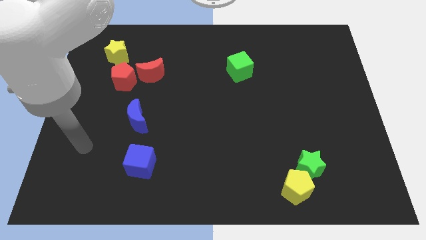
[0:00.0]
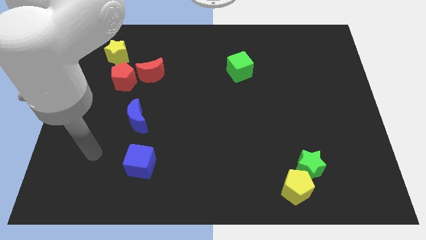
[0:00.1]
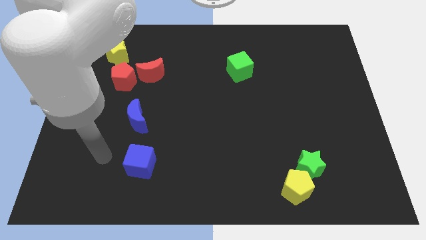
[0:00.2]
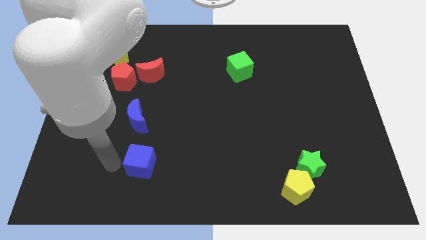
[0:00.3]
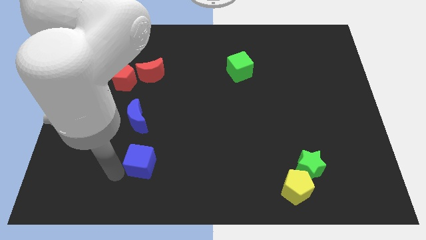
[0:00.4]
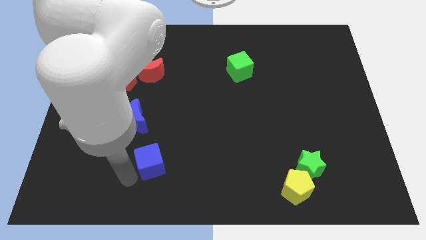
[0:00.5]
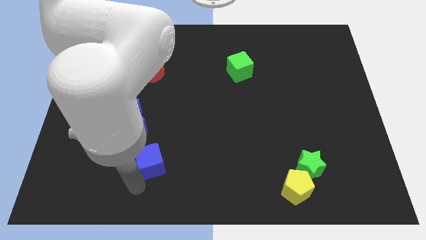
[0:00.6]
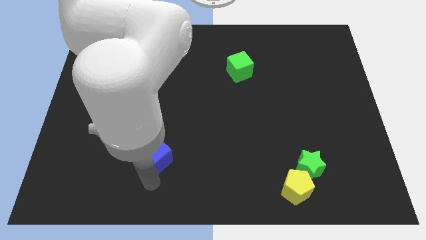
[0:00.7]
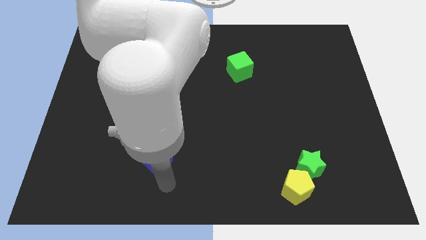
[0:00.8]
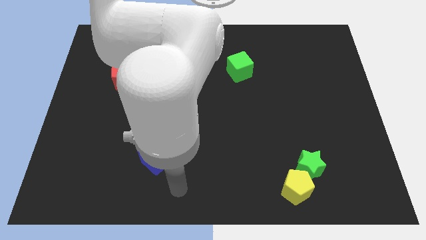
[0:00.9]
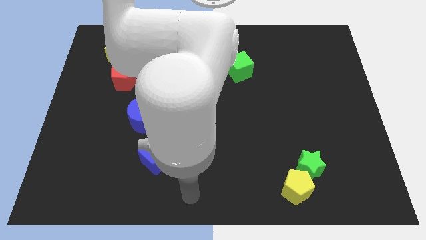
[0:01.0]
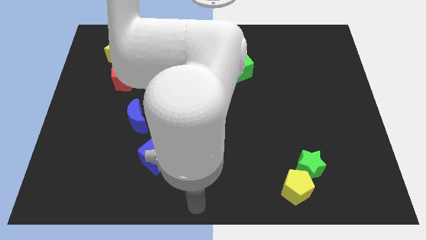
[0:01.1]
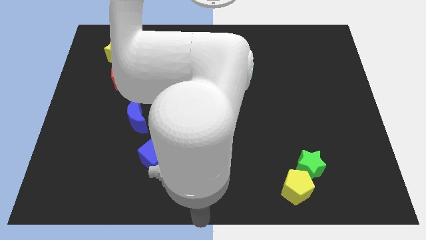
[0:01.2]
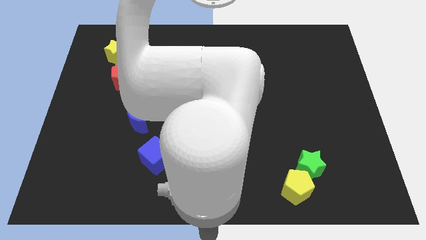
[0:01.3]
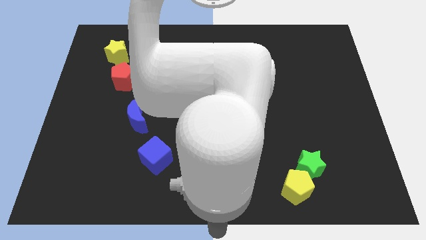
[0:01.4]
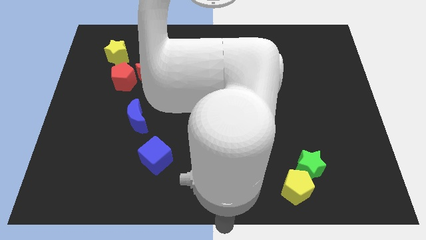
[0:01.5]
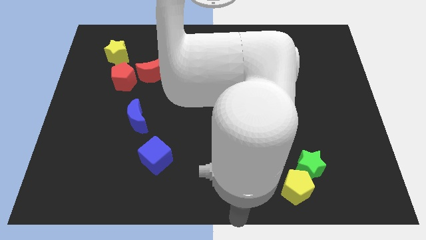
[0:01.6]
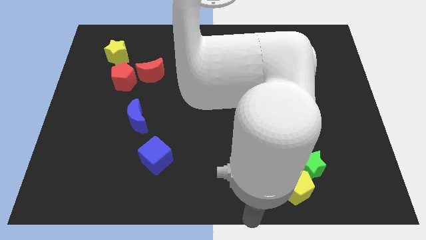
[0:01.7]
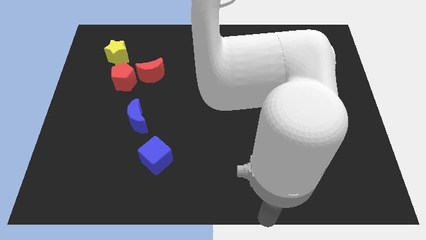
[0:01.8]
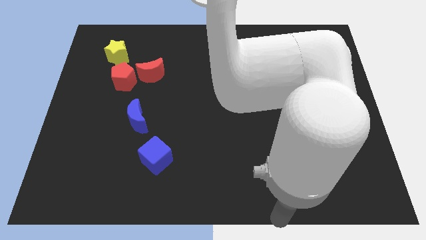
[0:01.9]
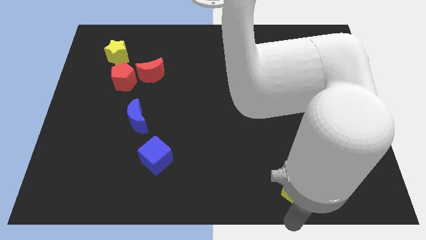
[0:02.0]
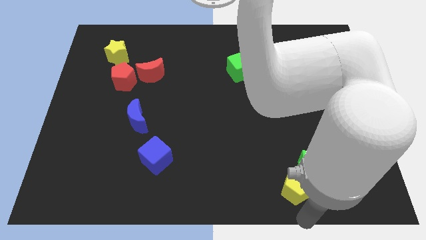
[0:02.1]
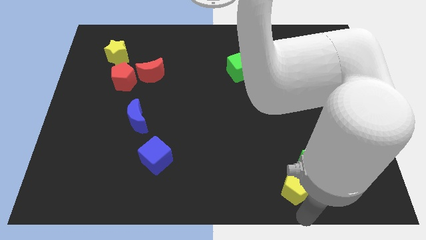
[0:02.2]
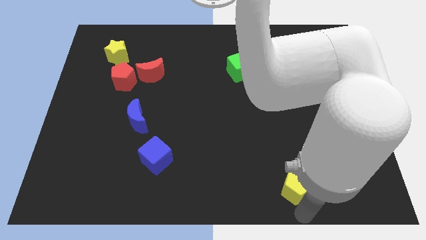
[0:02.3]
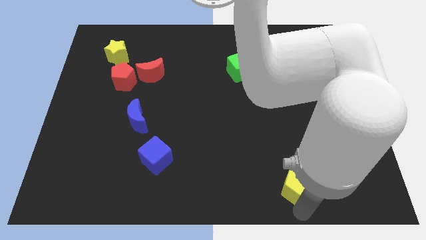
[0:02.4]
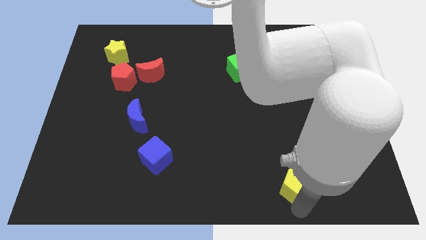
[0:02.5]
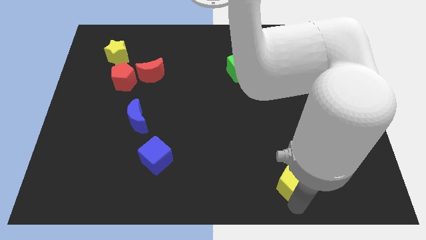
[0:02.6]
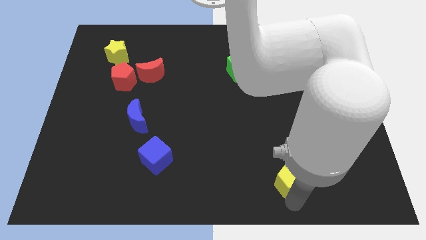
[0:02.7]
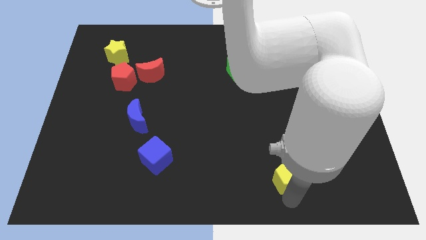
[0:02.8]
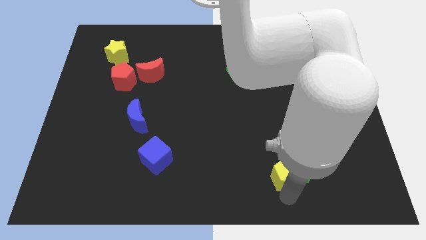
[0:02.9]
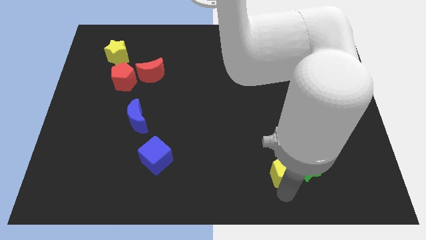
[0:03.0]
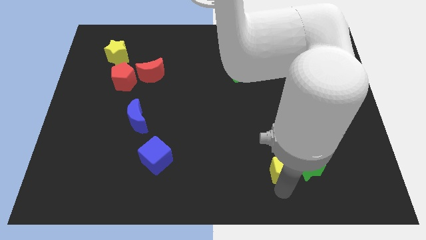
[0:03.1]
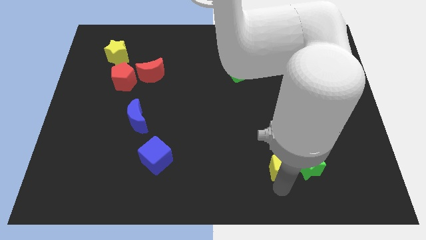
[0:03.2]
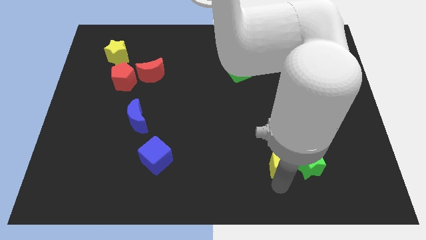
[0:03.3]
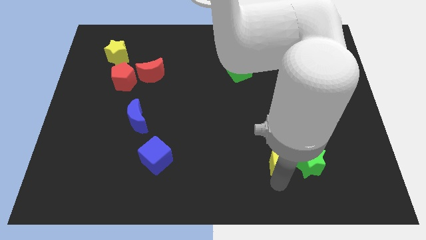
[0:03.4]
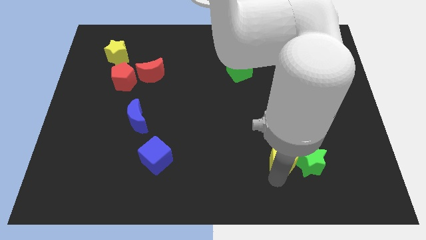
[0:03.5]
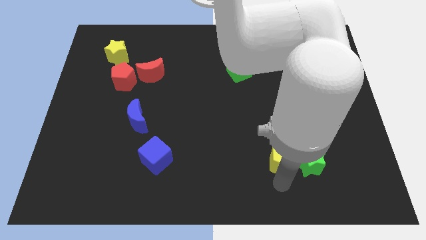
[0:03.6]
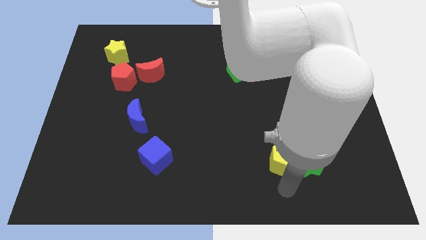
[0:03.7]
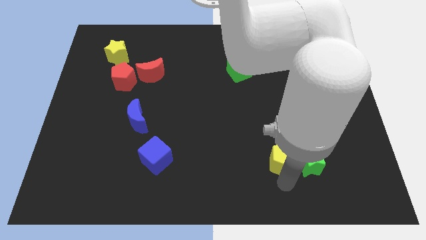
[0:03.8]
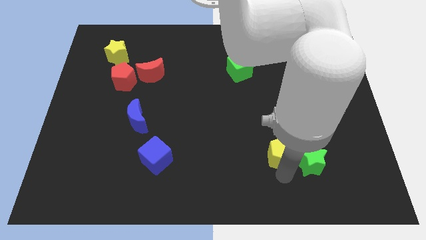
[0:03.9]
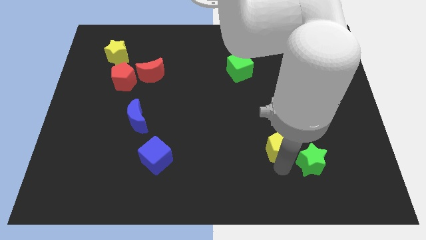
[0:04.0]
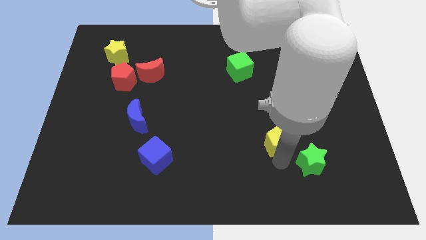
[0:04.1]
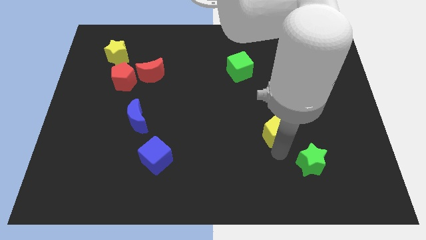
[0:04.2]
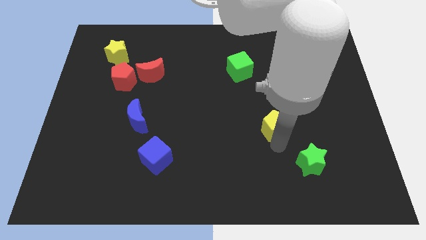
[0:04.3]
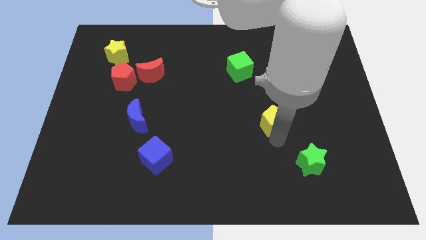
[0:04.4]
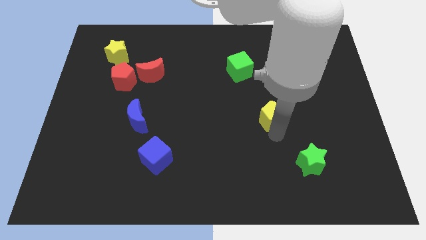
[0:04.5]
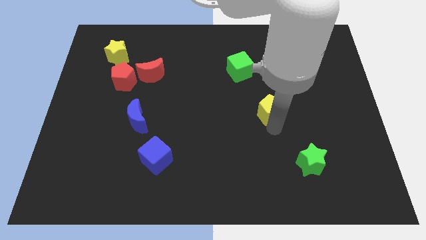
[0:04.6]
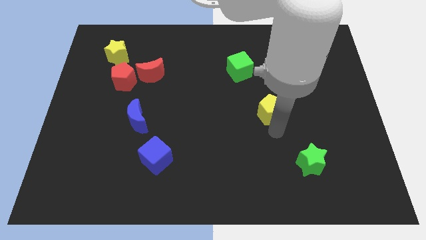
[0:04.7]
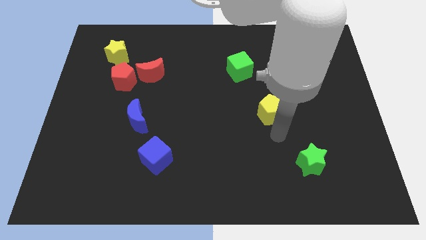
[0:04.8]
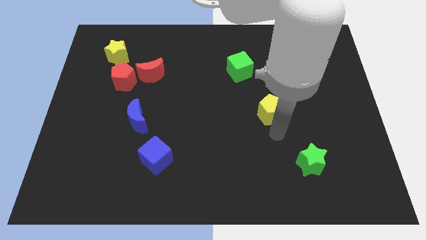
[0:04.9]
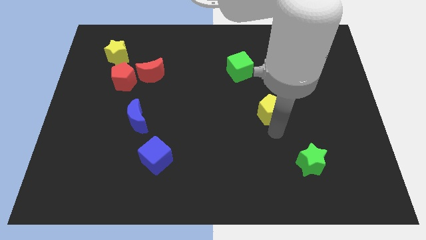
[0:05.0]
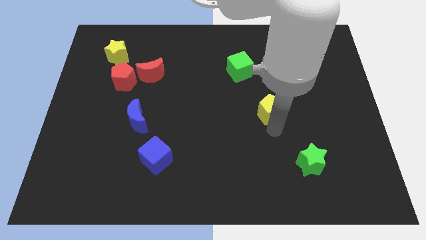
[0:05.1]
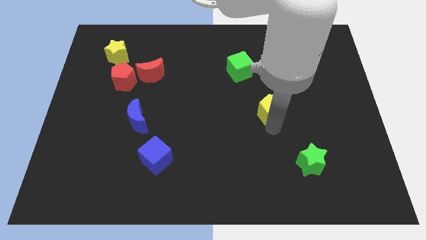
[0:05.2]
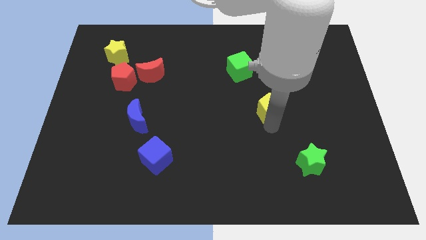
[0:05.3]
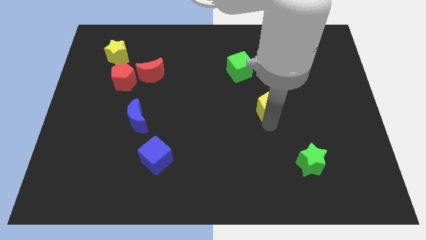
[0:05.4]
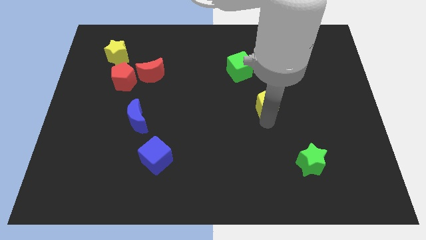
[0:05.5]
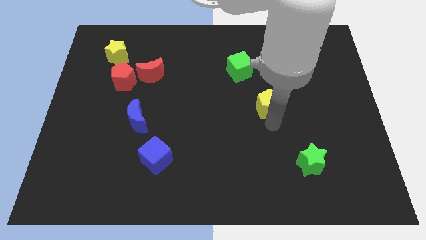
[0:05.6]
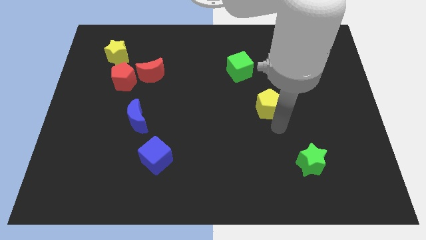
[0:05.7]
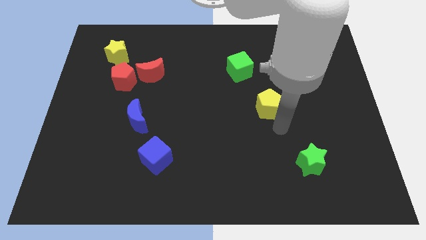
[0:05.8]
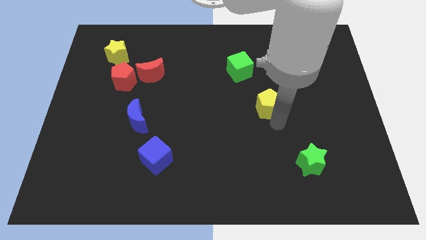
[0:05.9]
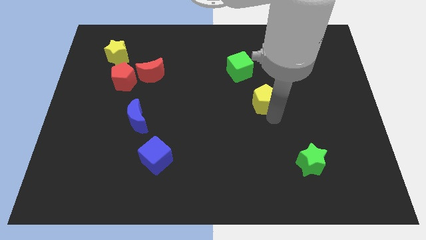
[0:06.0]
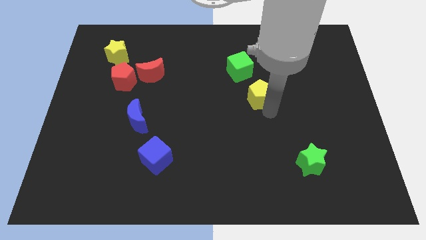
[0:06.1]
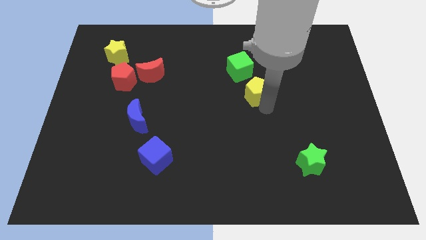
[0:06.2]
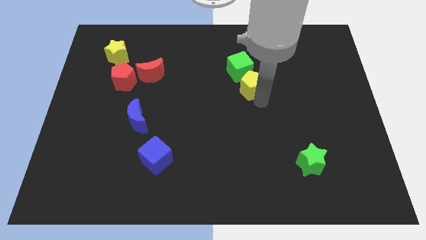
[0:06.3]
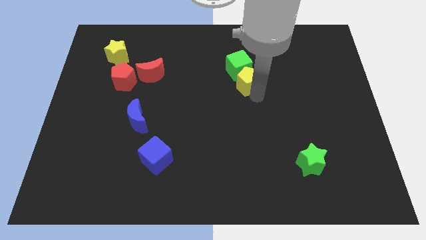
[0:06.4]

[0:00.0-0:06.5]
slide the yellow pentagon close to the green cube

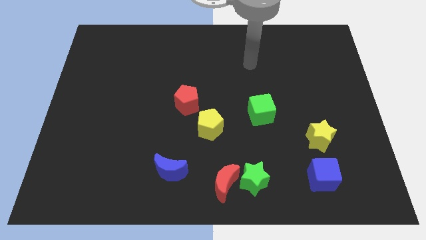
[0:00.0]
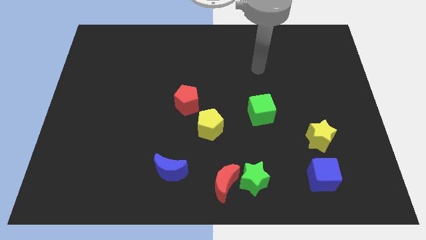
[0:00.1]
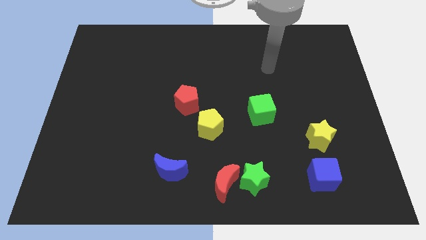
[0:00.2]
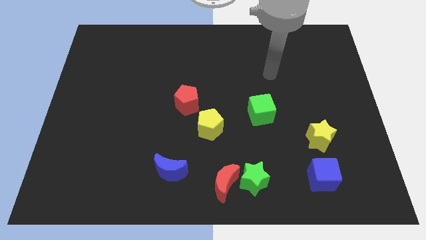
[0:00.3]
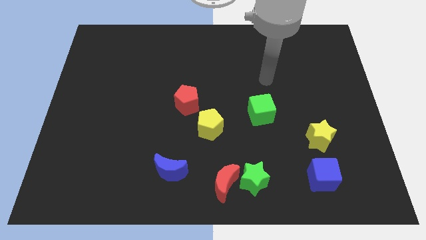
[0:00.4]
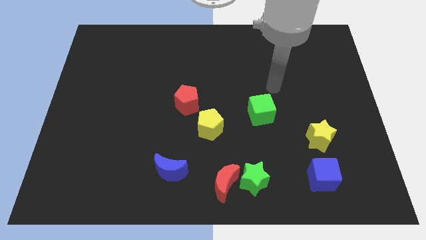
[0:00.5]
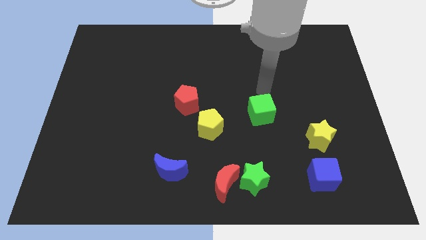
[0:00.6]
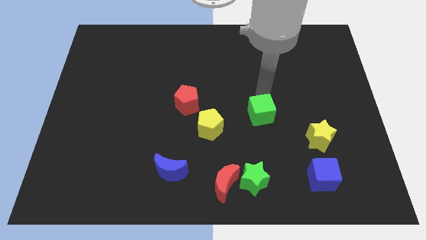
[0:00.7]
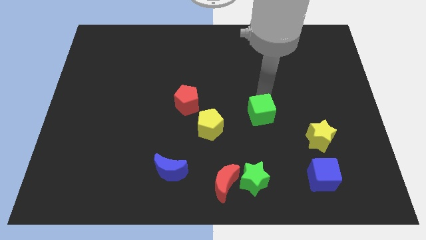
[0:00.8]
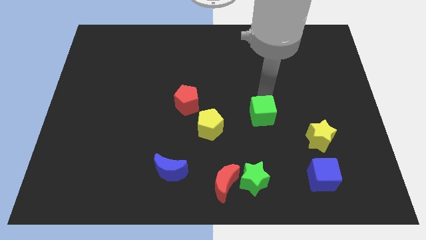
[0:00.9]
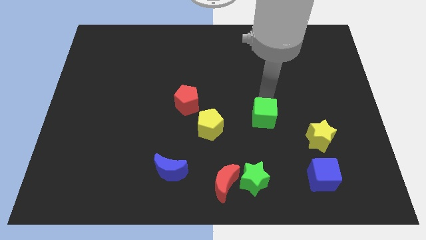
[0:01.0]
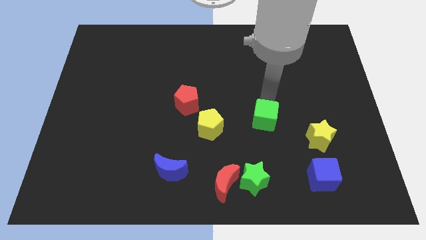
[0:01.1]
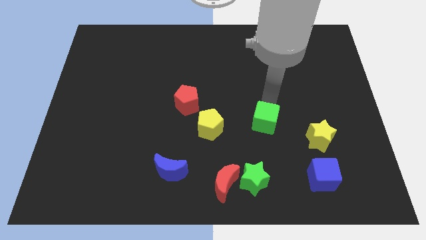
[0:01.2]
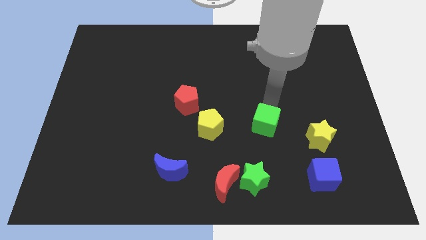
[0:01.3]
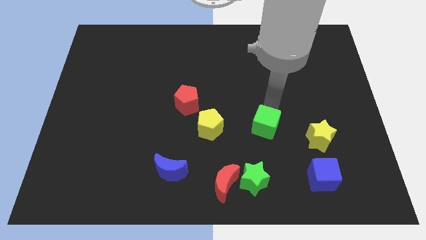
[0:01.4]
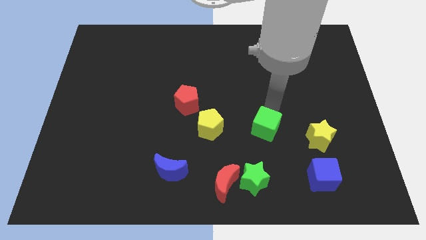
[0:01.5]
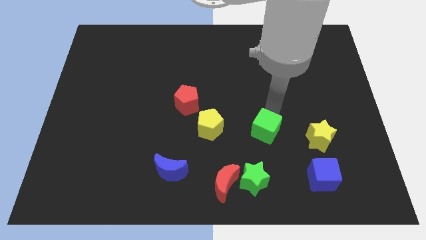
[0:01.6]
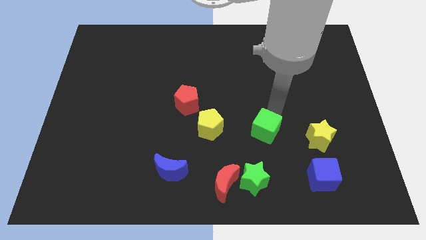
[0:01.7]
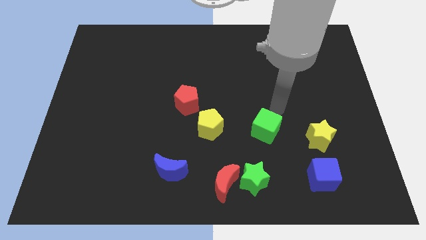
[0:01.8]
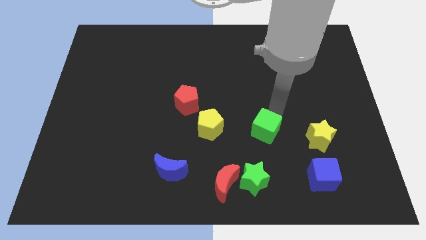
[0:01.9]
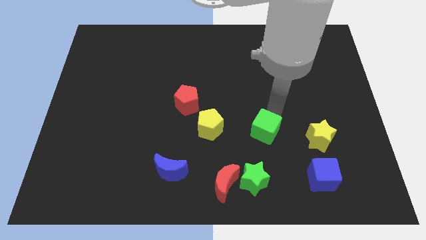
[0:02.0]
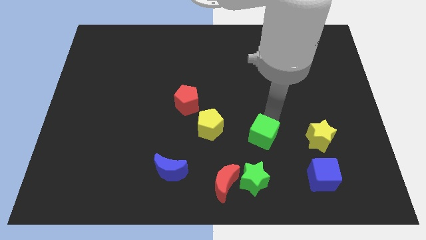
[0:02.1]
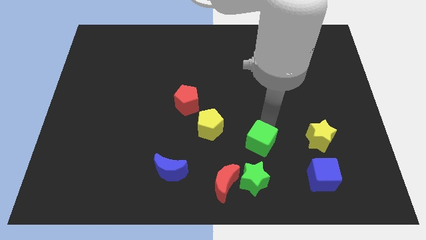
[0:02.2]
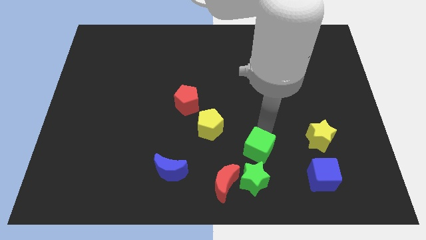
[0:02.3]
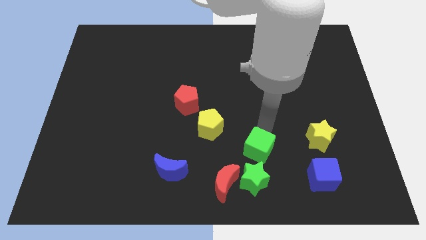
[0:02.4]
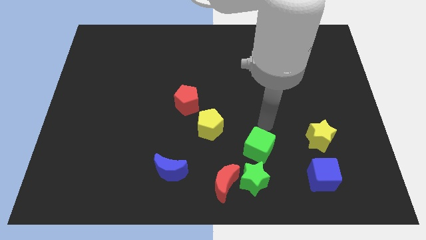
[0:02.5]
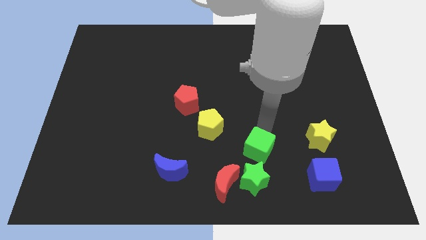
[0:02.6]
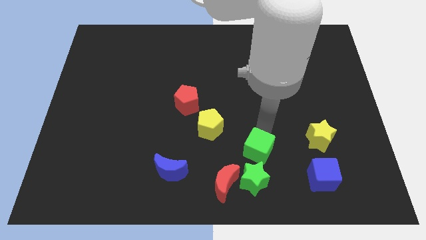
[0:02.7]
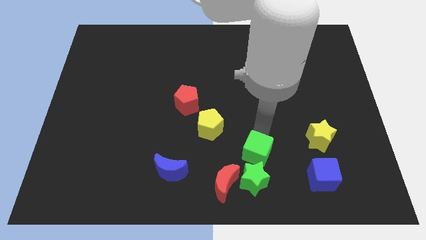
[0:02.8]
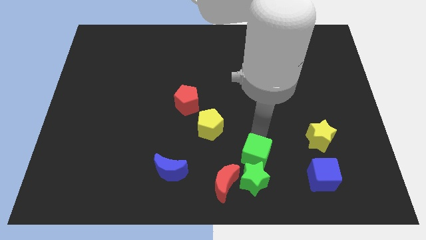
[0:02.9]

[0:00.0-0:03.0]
move the green cube close to the green star
